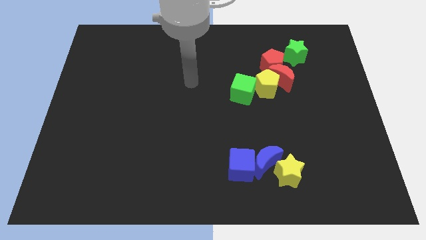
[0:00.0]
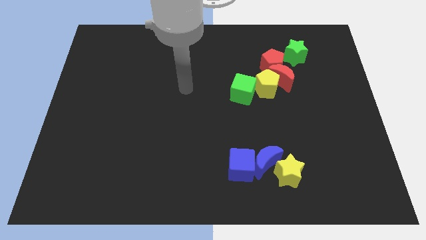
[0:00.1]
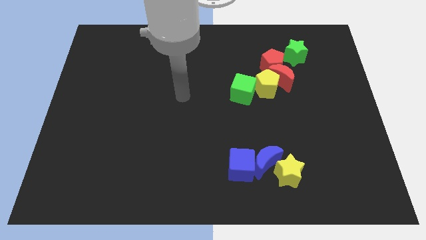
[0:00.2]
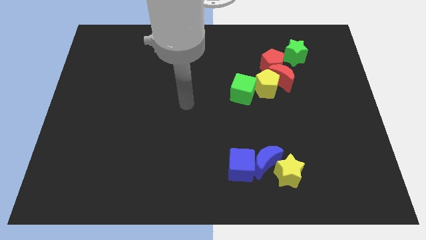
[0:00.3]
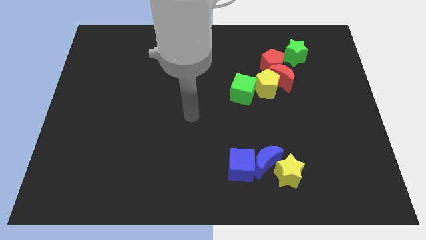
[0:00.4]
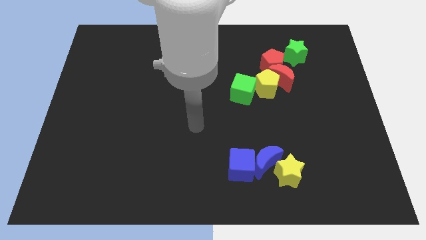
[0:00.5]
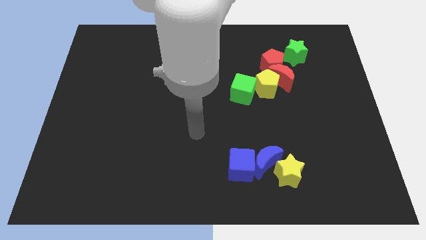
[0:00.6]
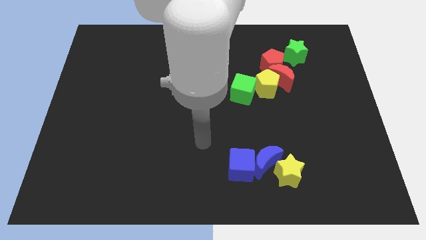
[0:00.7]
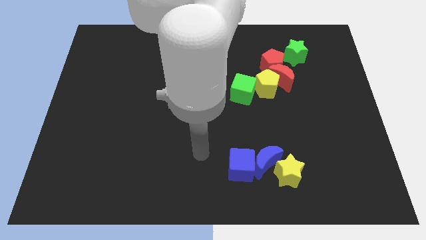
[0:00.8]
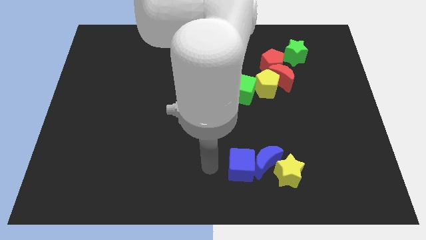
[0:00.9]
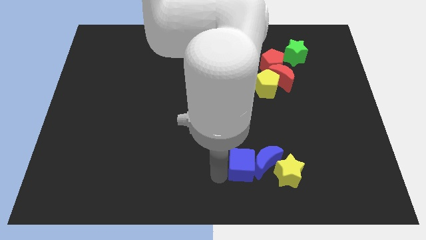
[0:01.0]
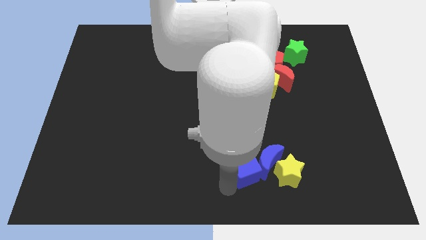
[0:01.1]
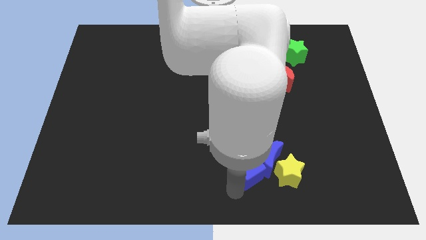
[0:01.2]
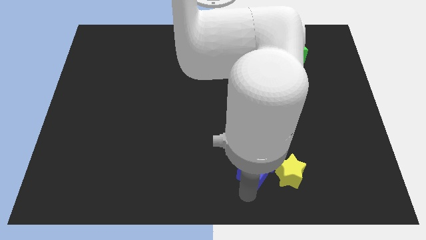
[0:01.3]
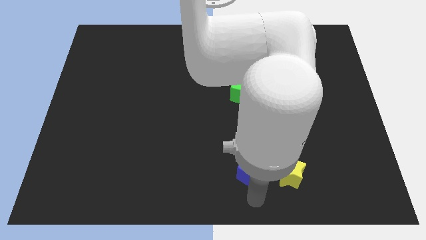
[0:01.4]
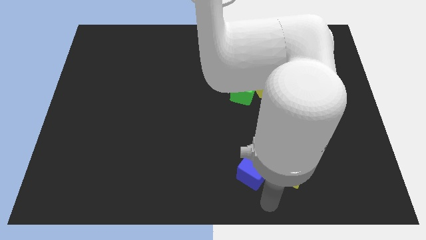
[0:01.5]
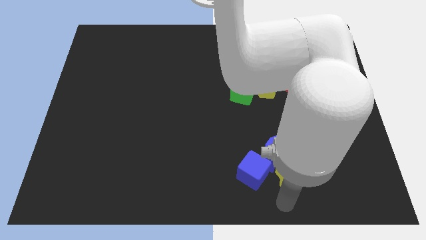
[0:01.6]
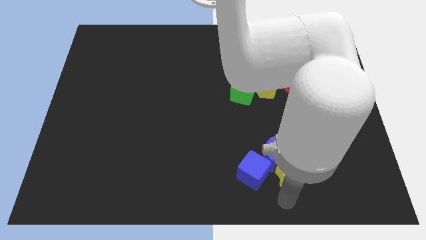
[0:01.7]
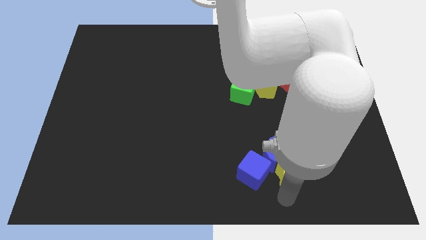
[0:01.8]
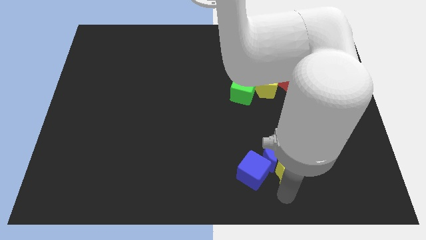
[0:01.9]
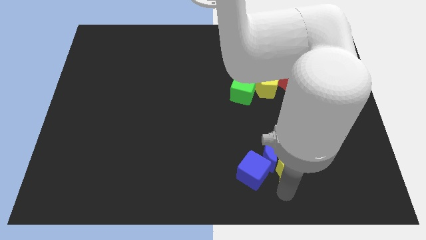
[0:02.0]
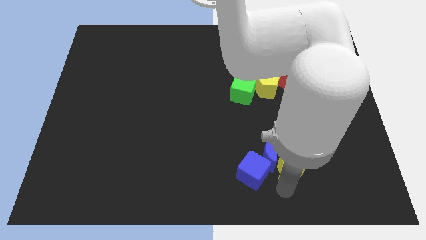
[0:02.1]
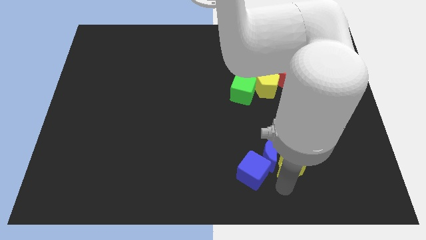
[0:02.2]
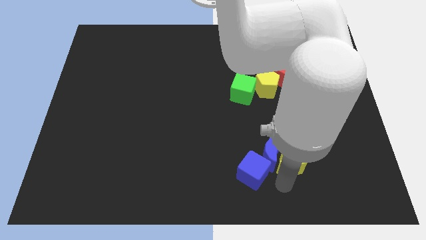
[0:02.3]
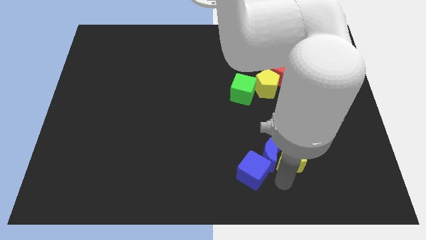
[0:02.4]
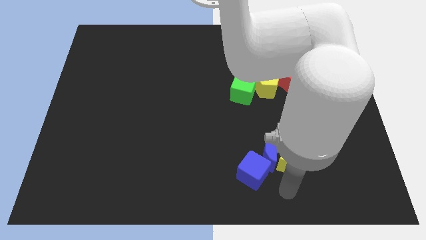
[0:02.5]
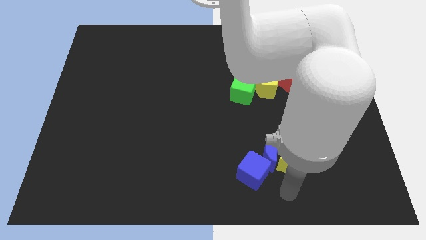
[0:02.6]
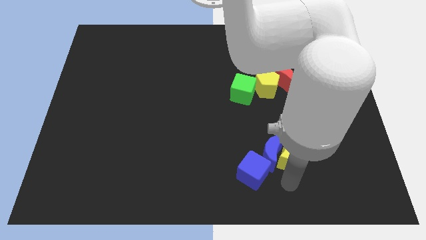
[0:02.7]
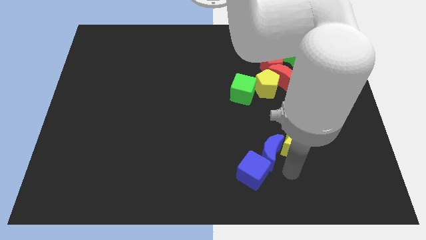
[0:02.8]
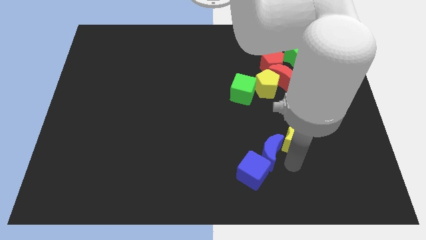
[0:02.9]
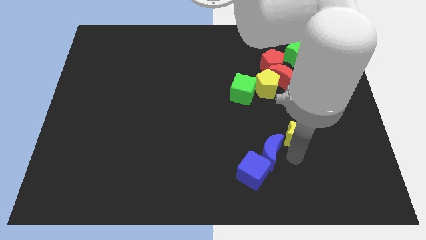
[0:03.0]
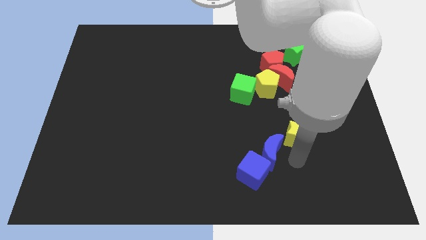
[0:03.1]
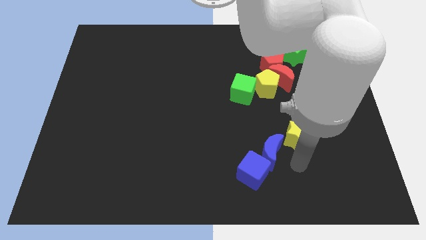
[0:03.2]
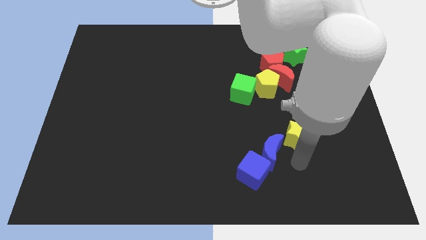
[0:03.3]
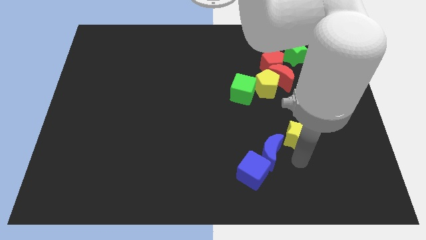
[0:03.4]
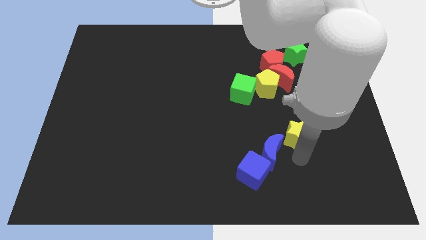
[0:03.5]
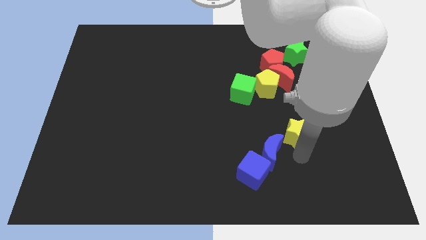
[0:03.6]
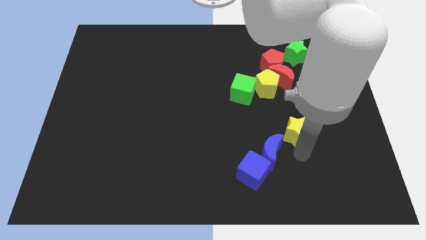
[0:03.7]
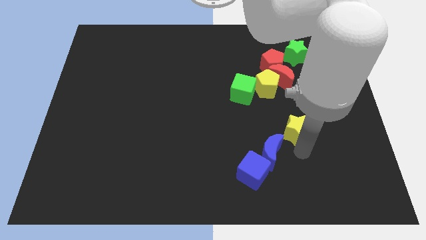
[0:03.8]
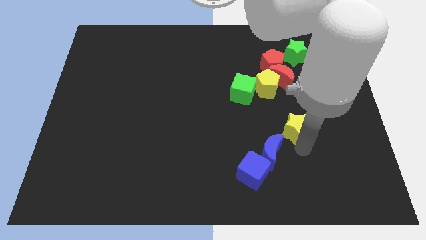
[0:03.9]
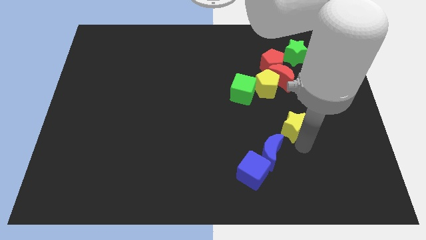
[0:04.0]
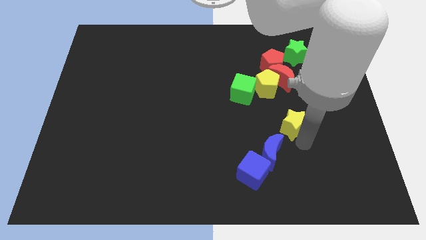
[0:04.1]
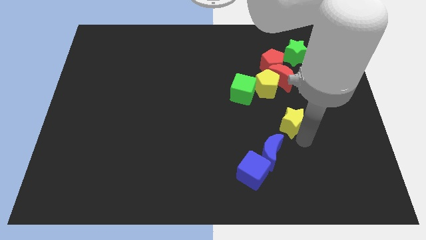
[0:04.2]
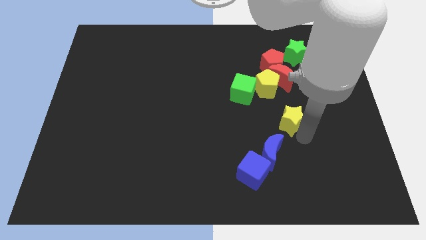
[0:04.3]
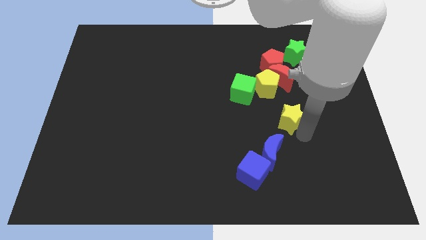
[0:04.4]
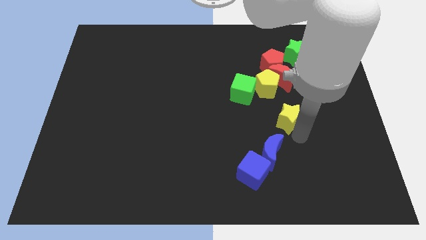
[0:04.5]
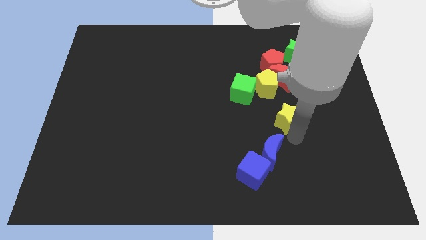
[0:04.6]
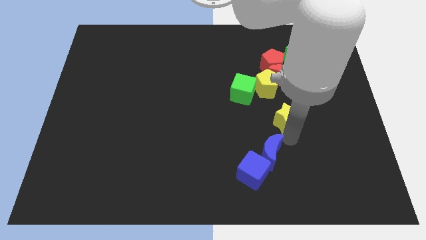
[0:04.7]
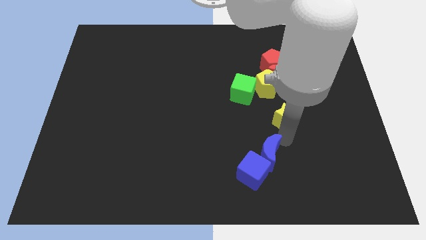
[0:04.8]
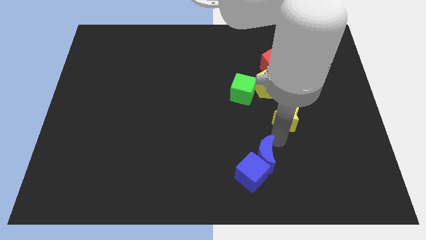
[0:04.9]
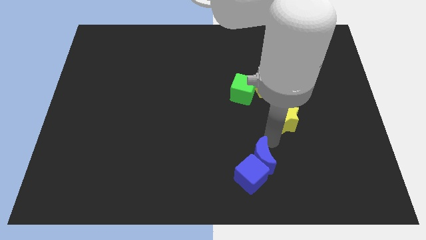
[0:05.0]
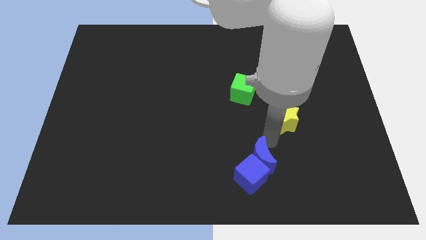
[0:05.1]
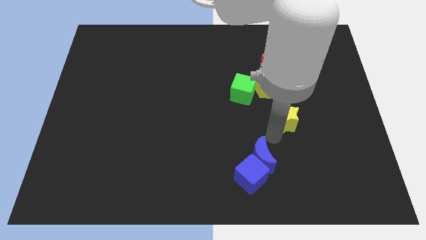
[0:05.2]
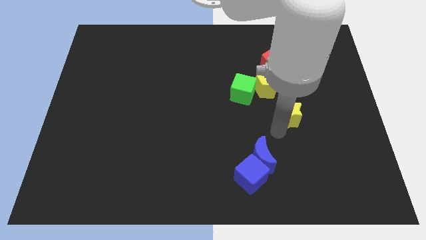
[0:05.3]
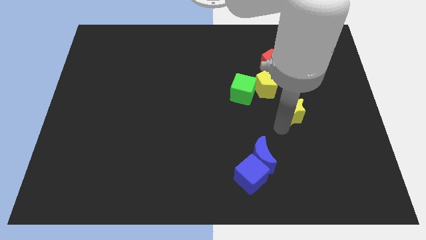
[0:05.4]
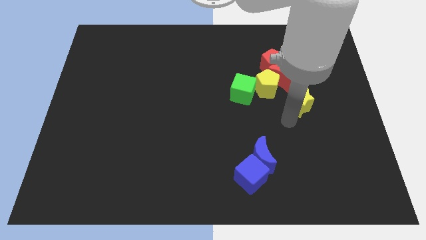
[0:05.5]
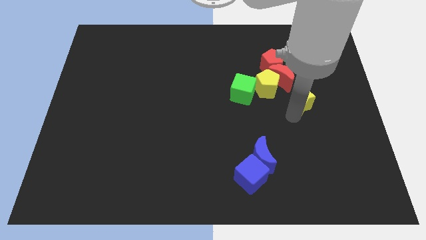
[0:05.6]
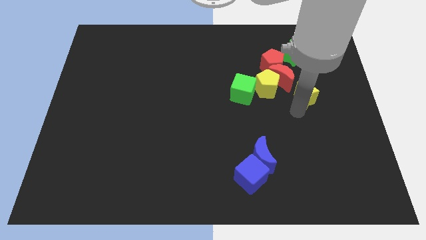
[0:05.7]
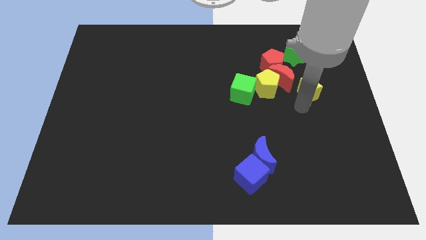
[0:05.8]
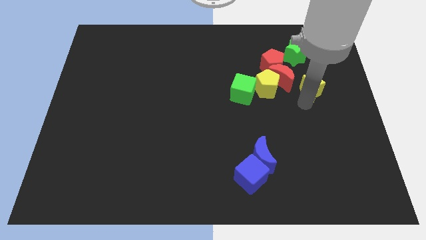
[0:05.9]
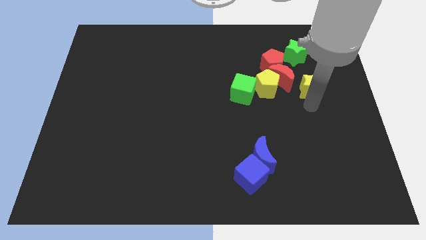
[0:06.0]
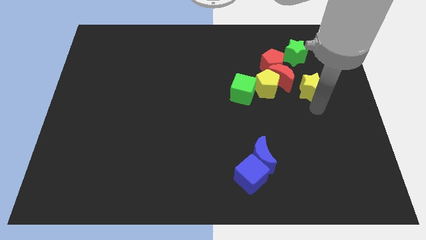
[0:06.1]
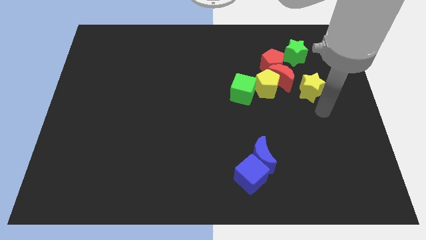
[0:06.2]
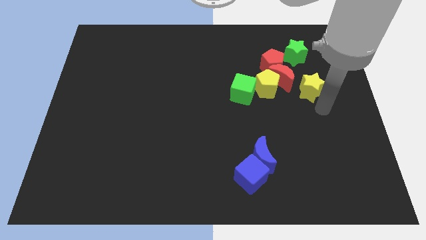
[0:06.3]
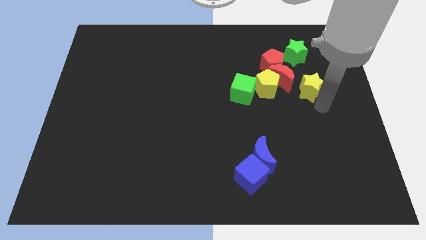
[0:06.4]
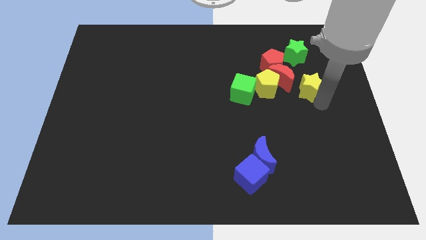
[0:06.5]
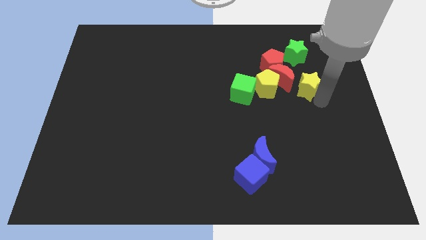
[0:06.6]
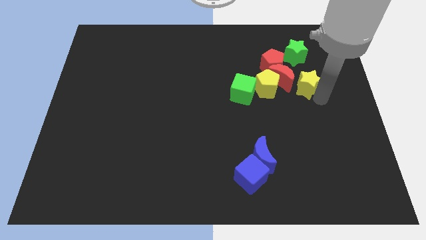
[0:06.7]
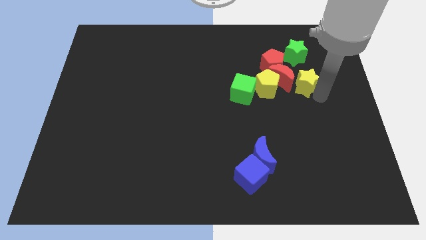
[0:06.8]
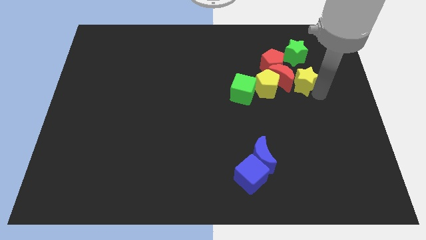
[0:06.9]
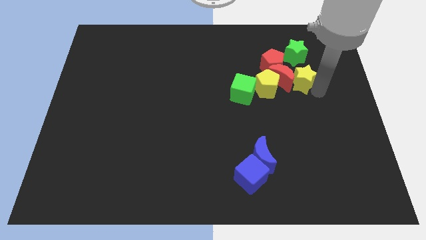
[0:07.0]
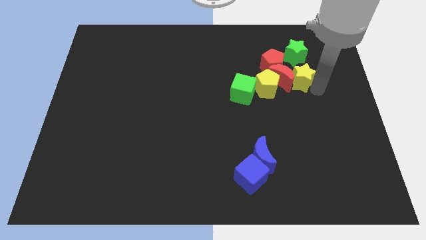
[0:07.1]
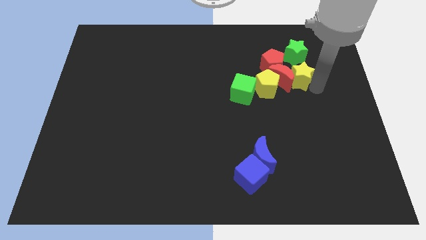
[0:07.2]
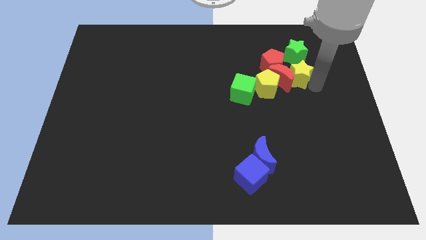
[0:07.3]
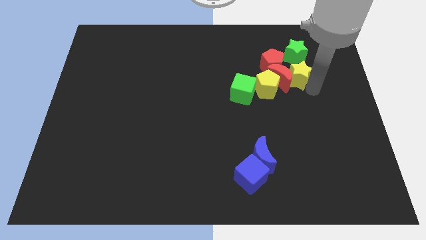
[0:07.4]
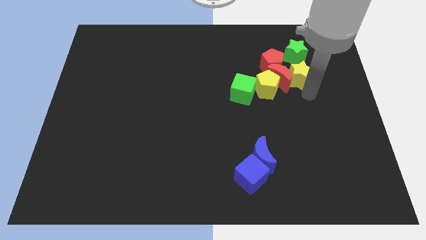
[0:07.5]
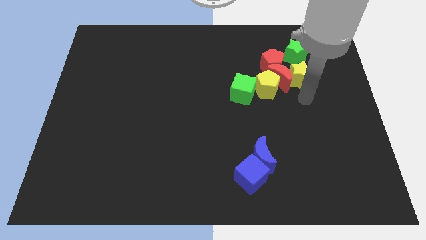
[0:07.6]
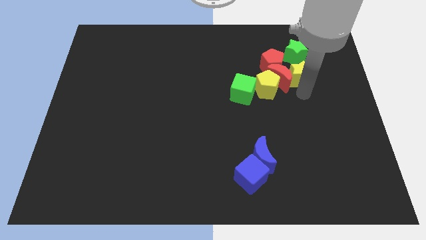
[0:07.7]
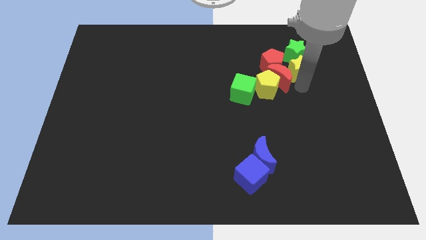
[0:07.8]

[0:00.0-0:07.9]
put the yellow star to the green star

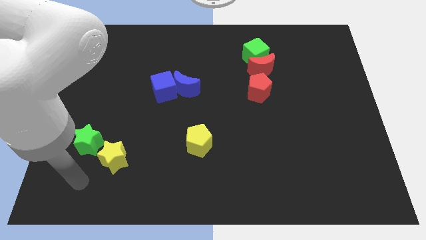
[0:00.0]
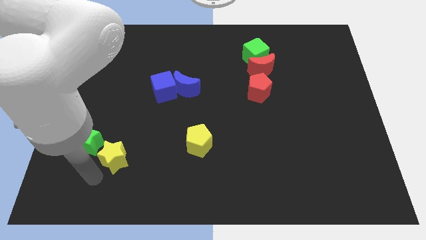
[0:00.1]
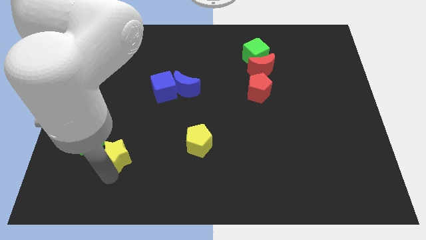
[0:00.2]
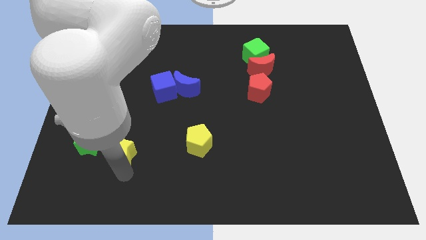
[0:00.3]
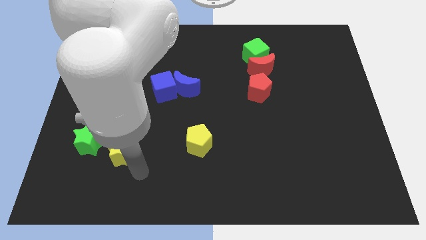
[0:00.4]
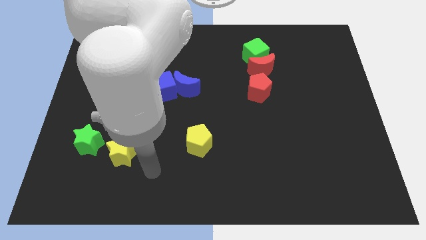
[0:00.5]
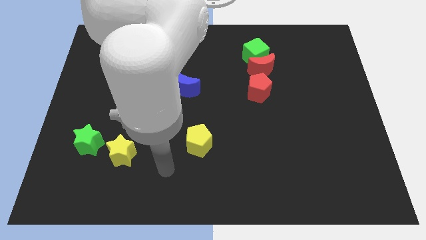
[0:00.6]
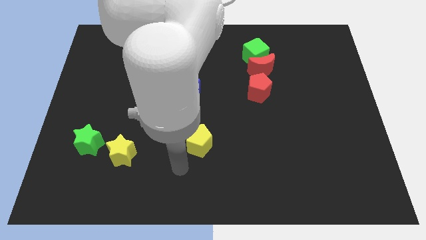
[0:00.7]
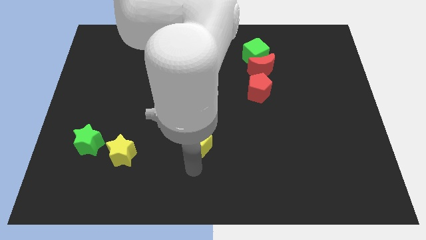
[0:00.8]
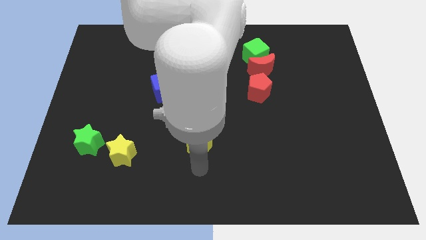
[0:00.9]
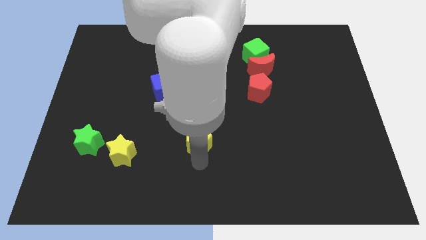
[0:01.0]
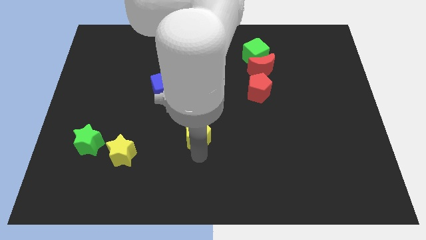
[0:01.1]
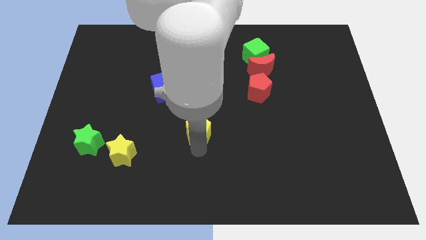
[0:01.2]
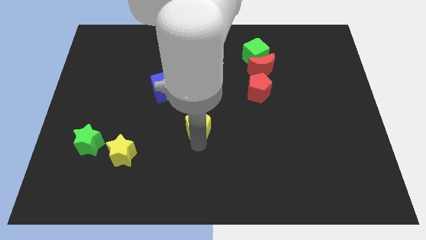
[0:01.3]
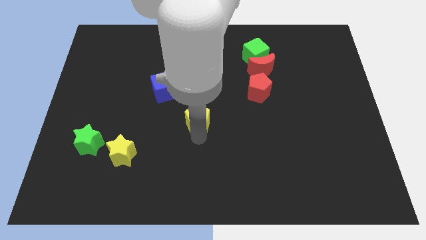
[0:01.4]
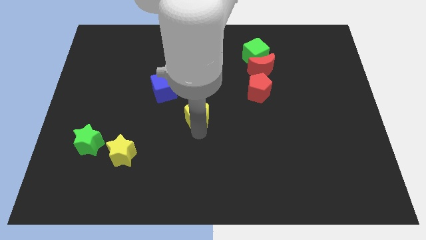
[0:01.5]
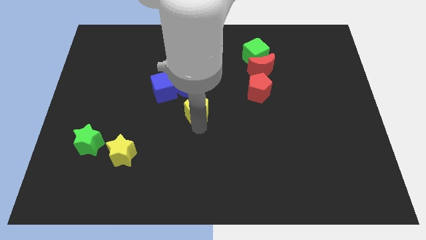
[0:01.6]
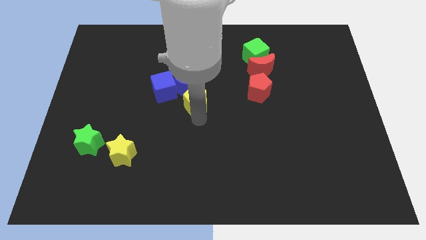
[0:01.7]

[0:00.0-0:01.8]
push the yellow pentagon towards the blue moon
